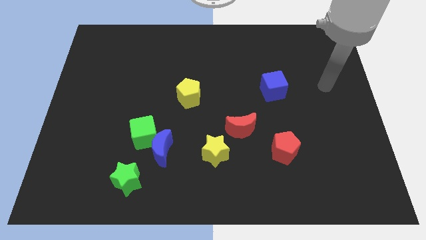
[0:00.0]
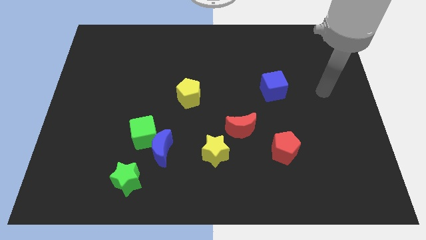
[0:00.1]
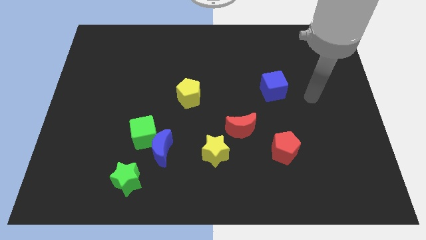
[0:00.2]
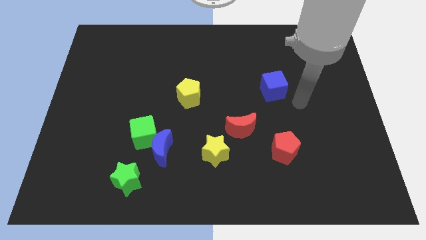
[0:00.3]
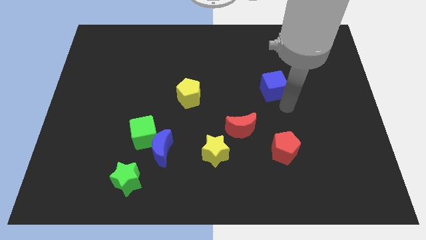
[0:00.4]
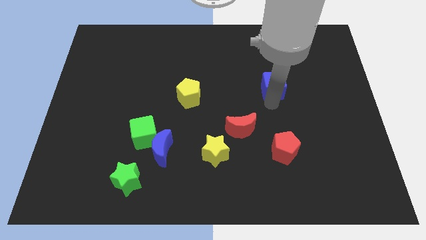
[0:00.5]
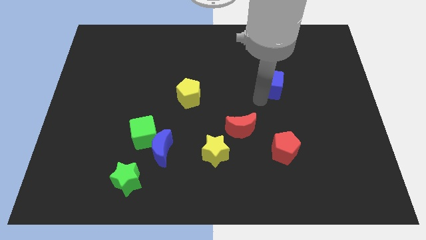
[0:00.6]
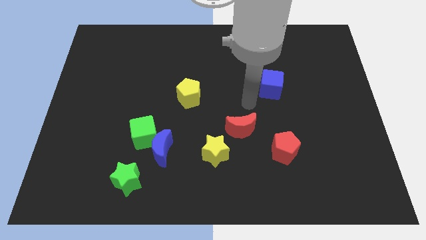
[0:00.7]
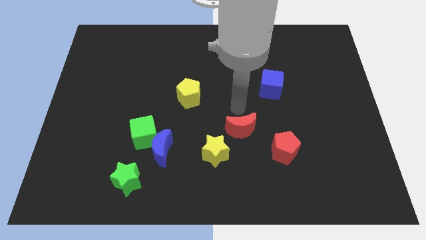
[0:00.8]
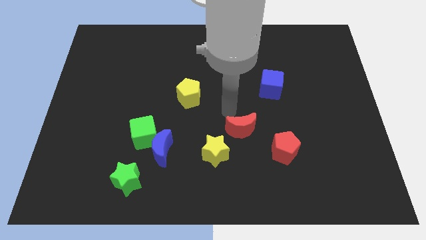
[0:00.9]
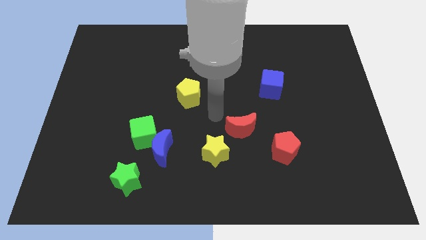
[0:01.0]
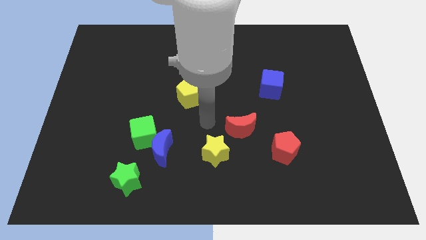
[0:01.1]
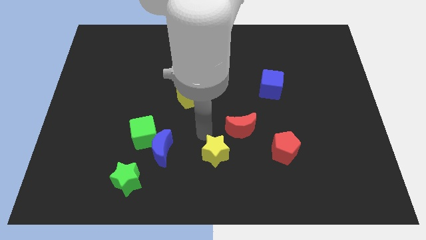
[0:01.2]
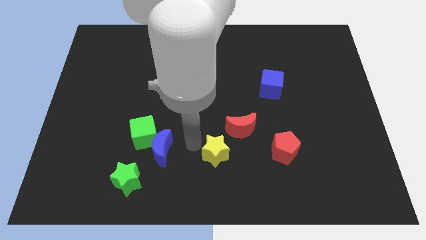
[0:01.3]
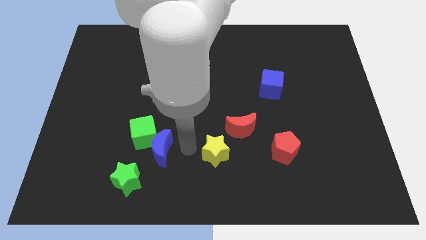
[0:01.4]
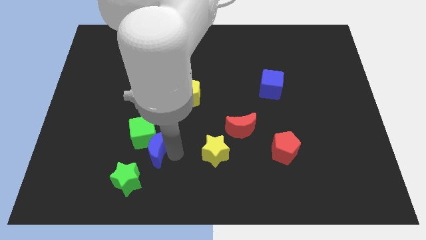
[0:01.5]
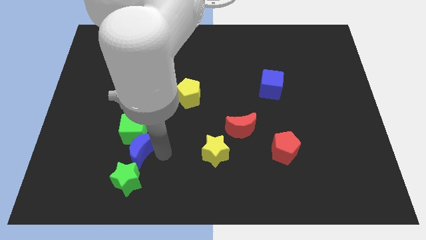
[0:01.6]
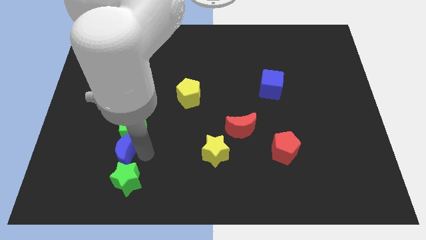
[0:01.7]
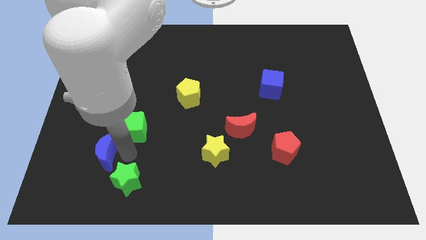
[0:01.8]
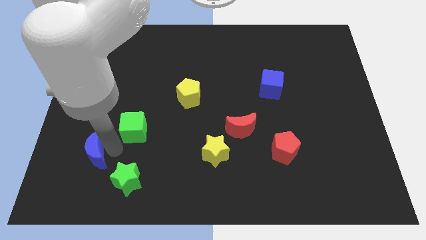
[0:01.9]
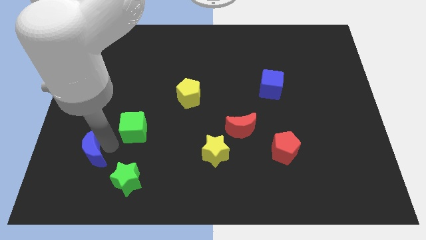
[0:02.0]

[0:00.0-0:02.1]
move the green cube away from the blue moon

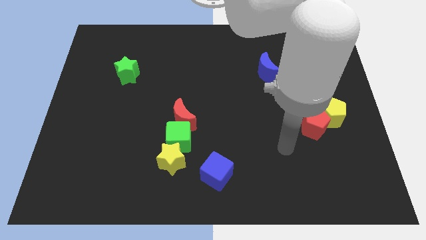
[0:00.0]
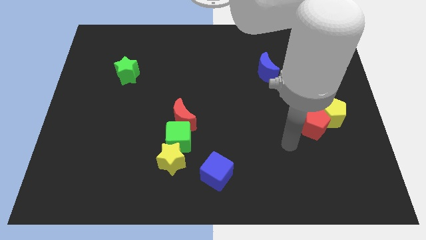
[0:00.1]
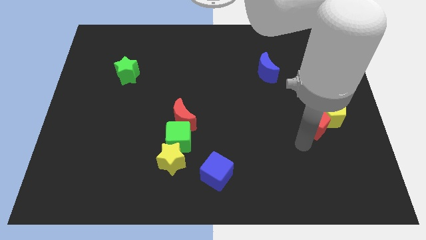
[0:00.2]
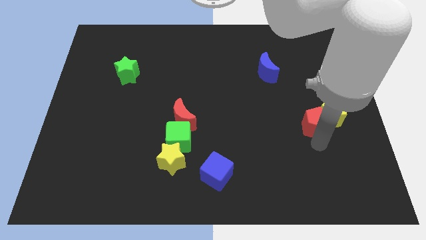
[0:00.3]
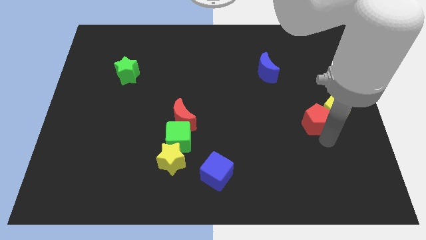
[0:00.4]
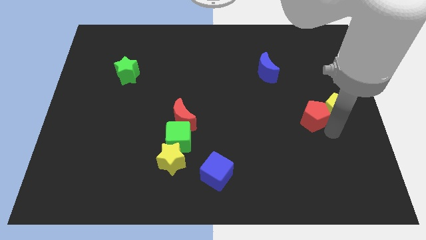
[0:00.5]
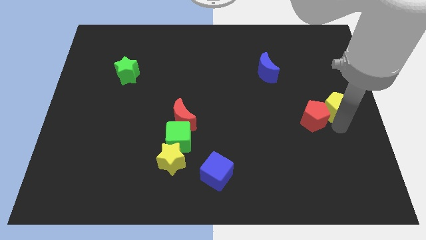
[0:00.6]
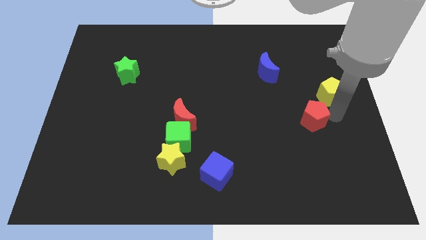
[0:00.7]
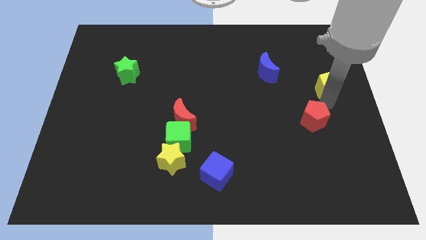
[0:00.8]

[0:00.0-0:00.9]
pull the red pentagon apart from the yellow pentagon

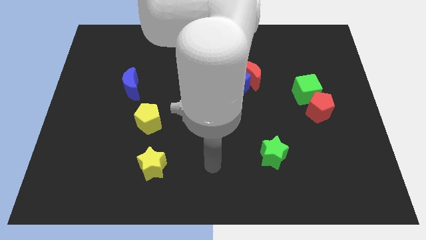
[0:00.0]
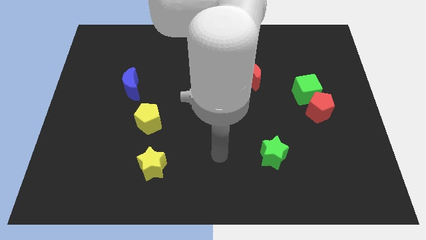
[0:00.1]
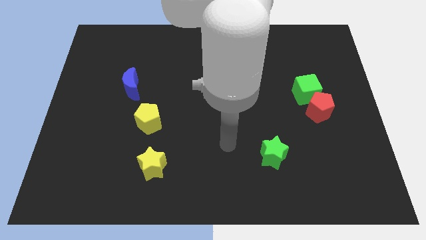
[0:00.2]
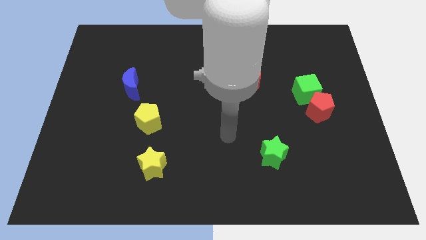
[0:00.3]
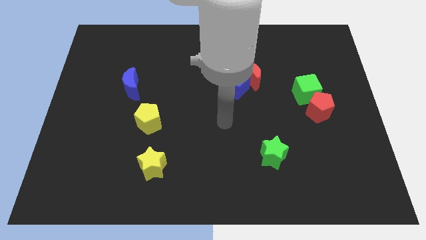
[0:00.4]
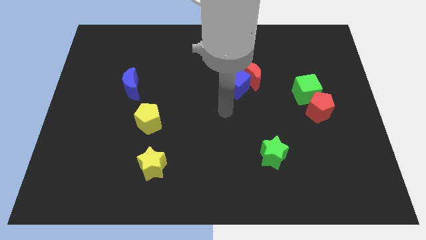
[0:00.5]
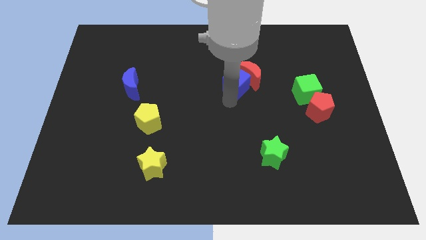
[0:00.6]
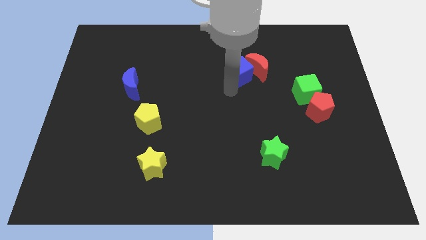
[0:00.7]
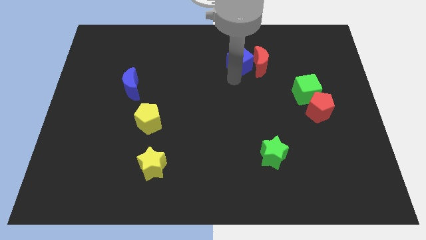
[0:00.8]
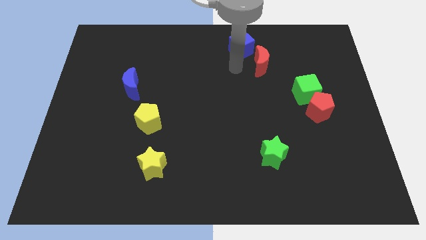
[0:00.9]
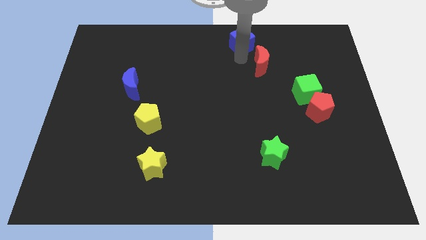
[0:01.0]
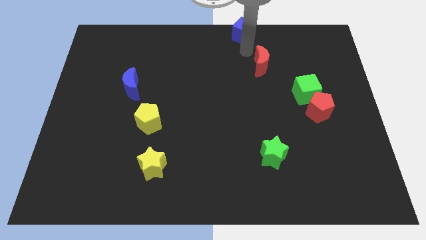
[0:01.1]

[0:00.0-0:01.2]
move the red moon away from the blue cube

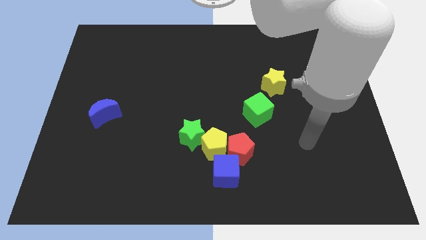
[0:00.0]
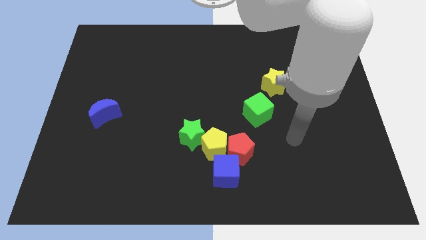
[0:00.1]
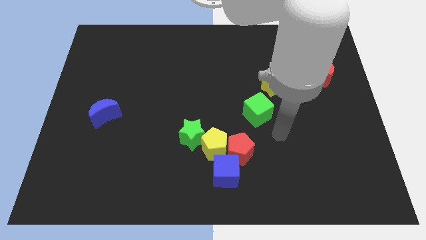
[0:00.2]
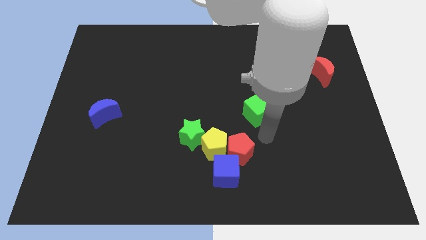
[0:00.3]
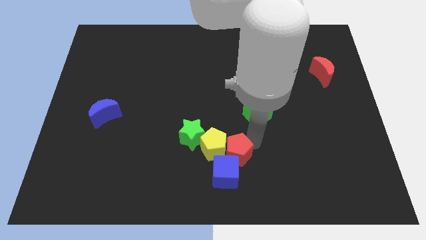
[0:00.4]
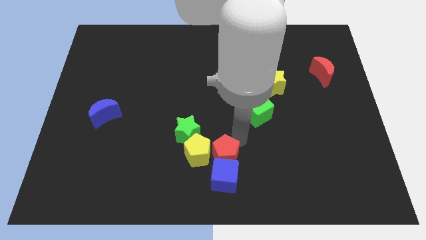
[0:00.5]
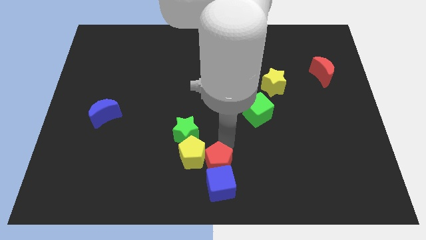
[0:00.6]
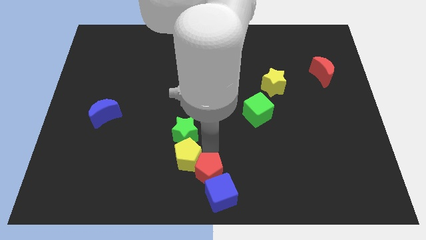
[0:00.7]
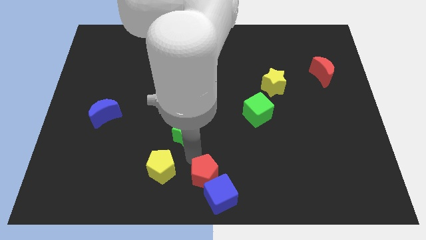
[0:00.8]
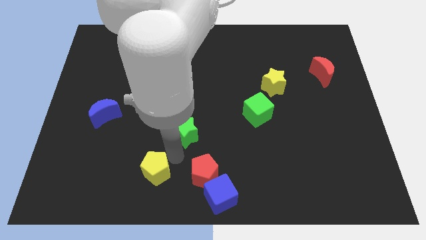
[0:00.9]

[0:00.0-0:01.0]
move the green star away from the yellow pentagon

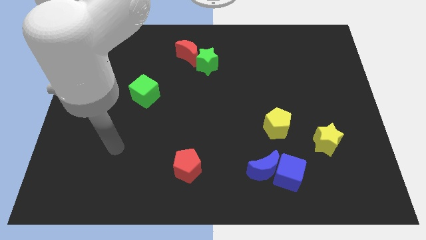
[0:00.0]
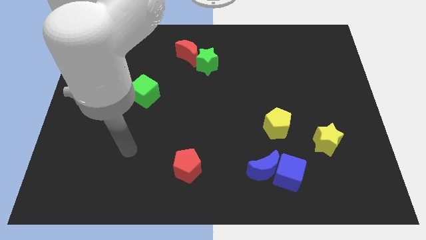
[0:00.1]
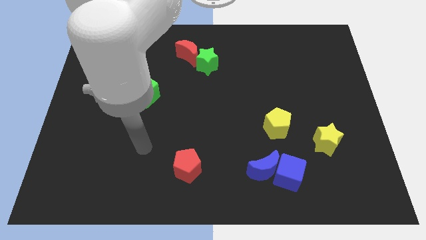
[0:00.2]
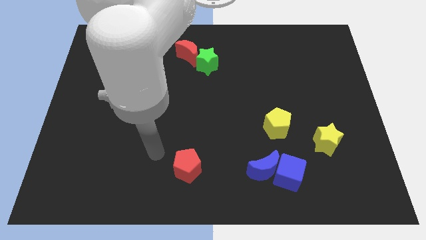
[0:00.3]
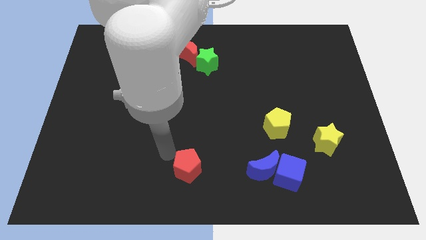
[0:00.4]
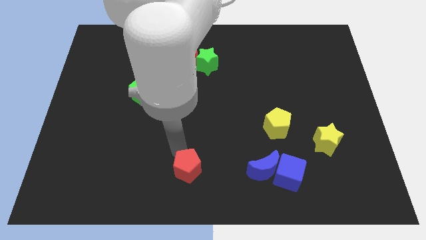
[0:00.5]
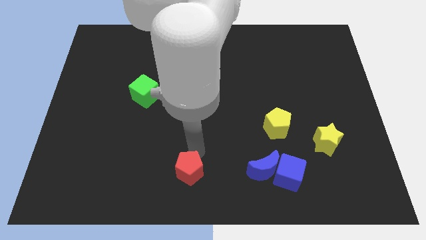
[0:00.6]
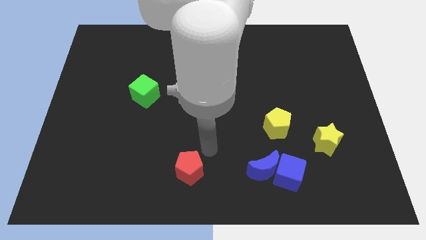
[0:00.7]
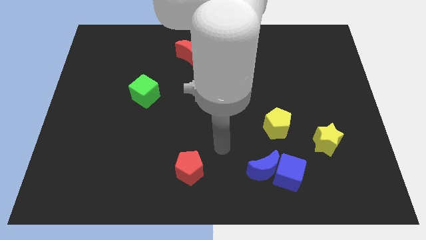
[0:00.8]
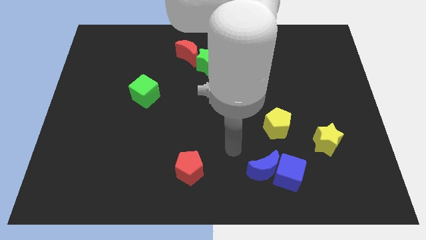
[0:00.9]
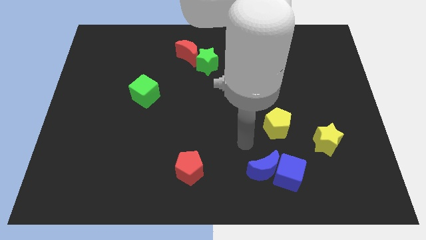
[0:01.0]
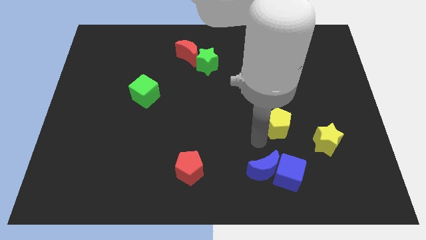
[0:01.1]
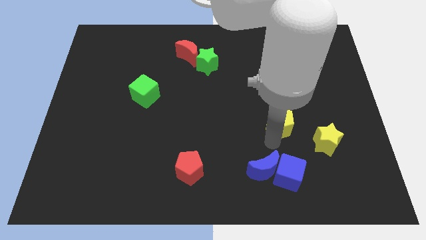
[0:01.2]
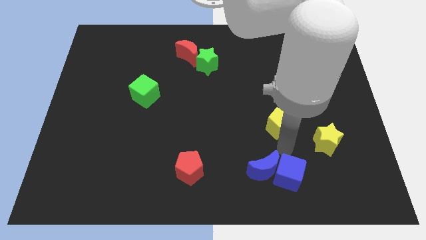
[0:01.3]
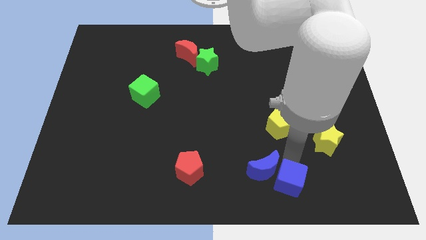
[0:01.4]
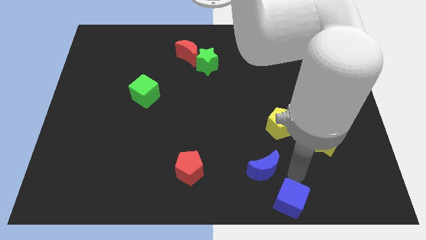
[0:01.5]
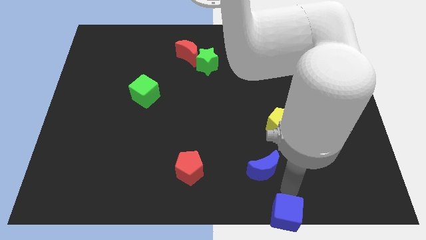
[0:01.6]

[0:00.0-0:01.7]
pull the blue moon apart from the blue cube

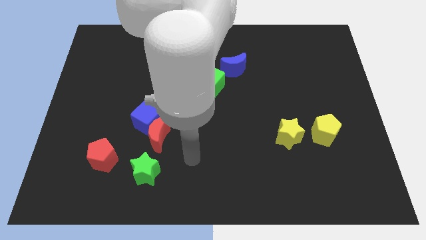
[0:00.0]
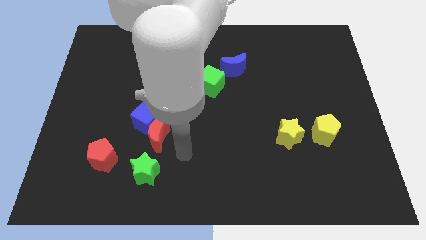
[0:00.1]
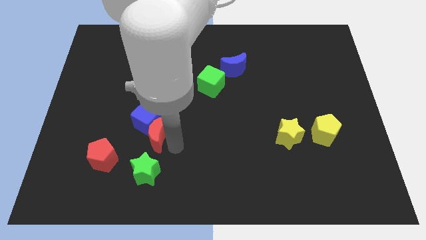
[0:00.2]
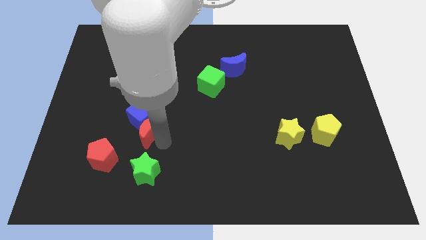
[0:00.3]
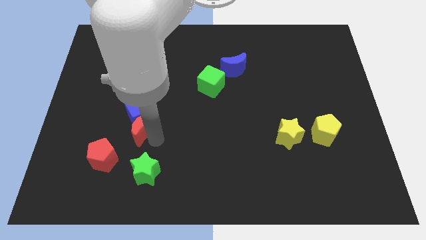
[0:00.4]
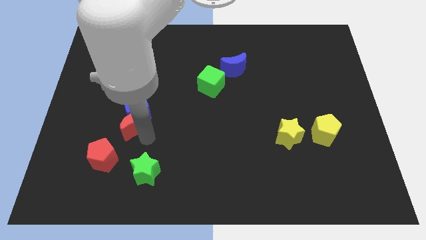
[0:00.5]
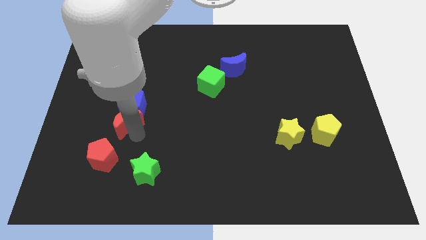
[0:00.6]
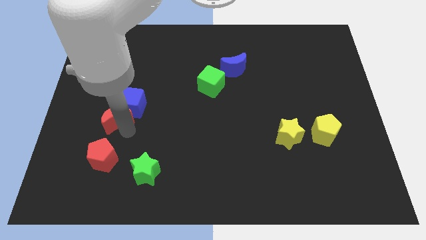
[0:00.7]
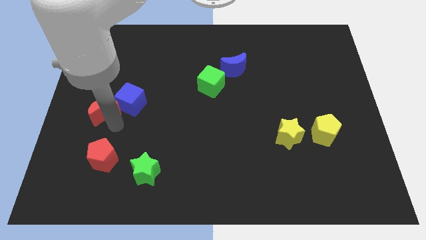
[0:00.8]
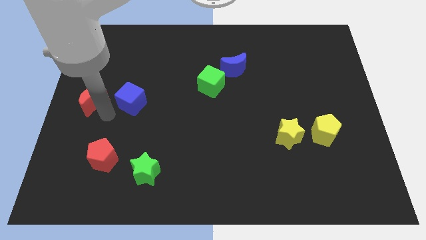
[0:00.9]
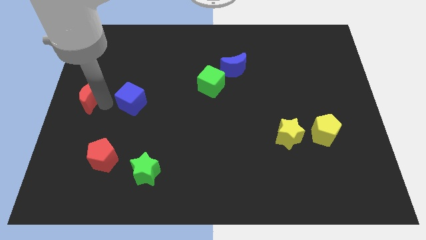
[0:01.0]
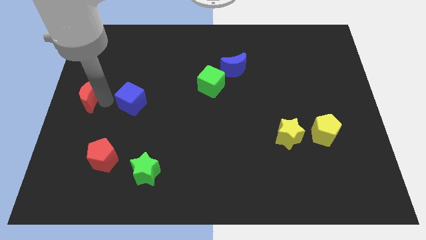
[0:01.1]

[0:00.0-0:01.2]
separate the blue cube from the red moon

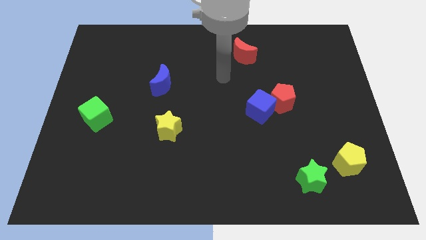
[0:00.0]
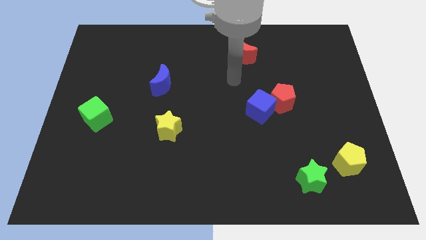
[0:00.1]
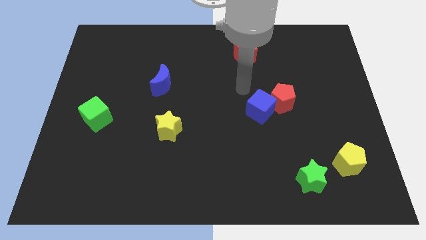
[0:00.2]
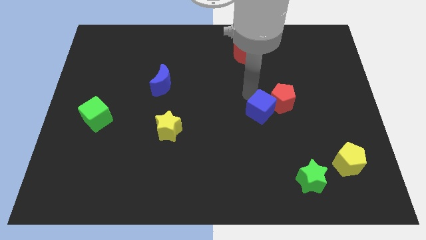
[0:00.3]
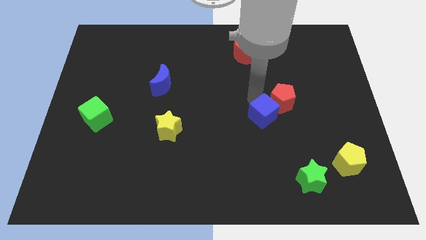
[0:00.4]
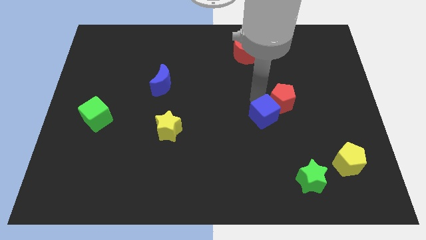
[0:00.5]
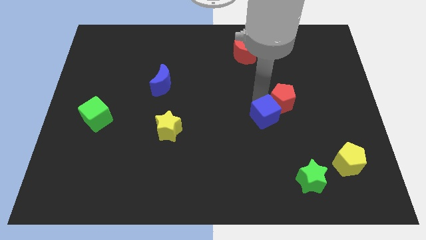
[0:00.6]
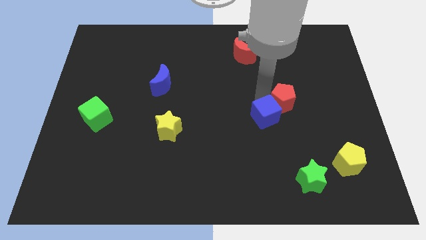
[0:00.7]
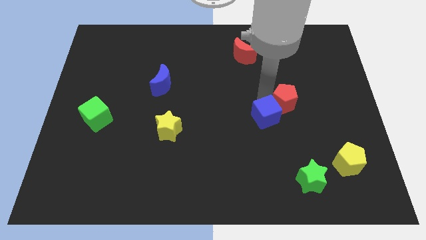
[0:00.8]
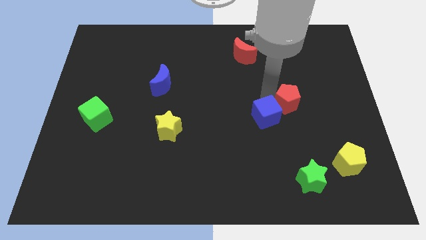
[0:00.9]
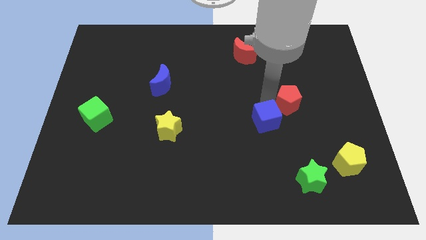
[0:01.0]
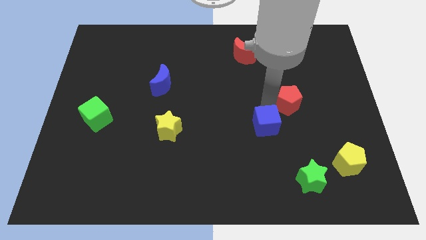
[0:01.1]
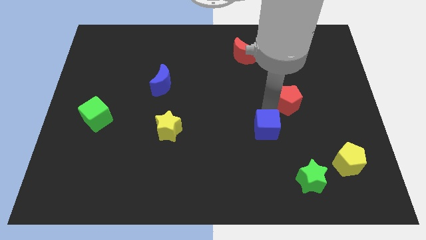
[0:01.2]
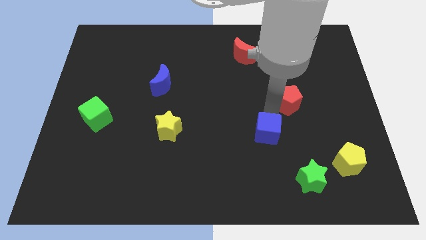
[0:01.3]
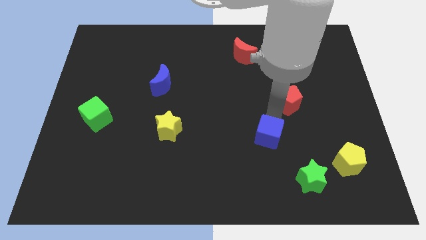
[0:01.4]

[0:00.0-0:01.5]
pull the red pentagon apart from the blue cube
